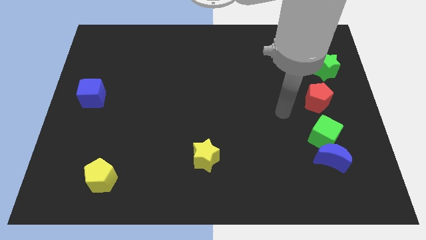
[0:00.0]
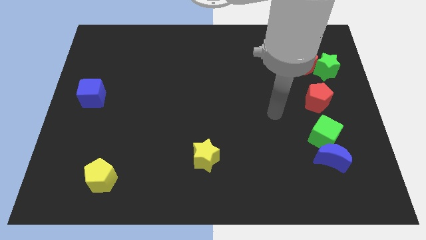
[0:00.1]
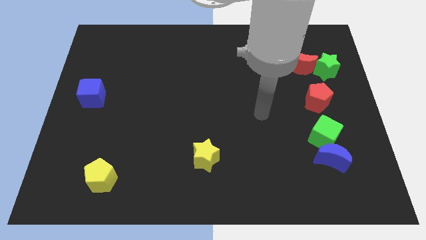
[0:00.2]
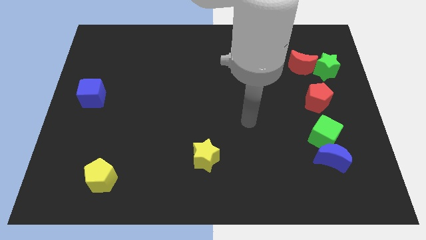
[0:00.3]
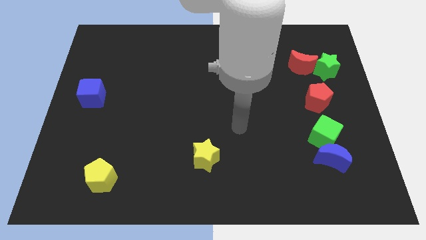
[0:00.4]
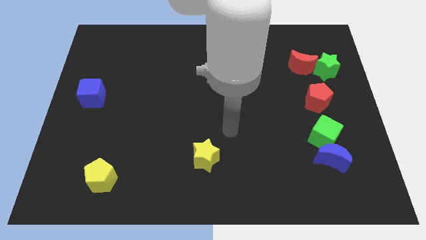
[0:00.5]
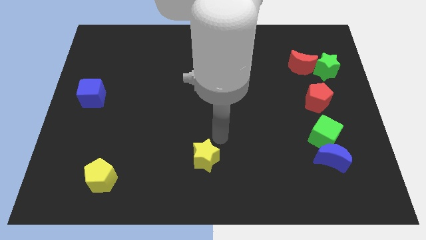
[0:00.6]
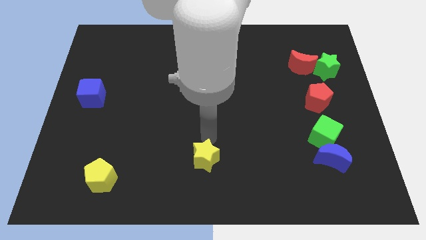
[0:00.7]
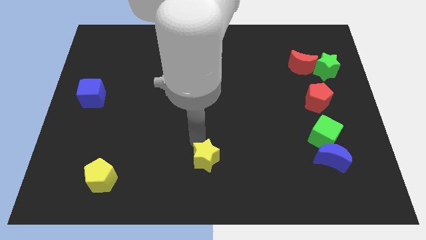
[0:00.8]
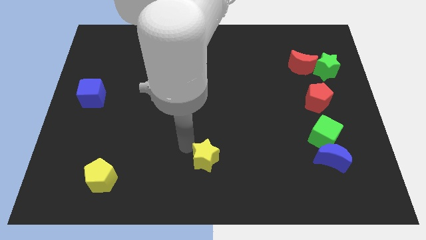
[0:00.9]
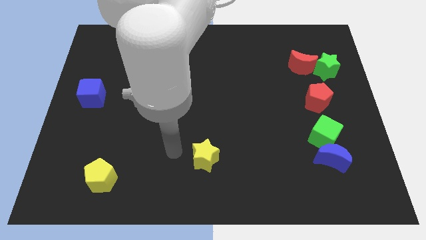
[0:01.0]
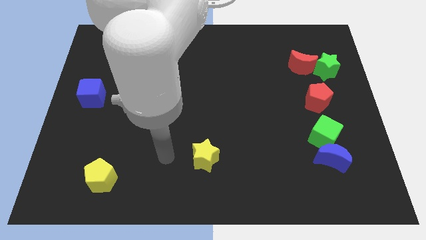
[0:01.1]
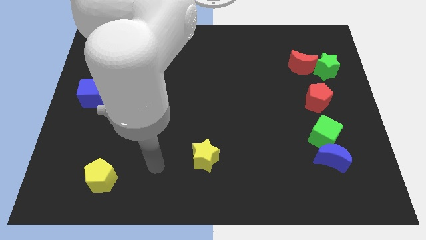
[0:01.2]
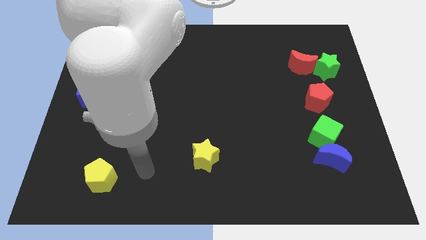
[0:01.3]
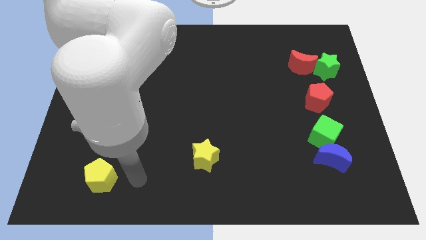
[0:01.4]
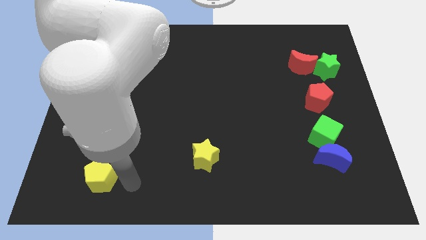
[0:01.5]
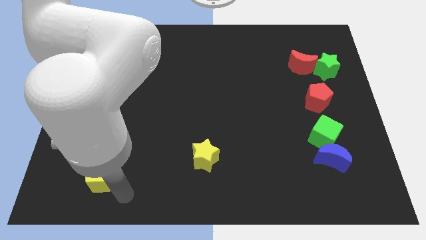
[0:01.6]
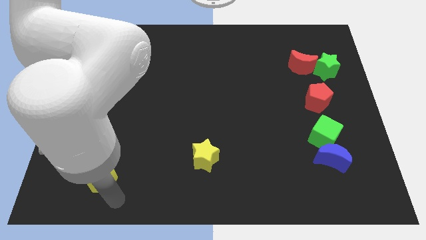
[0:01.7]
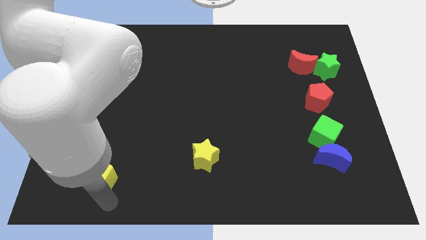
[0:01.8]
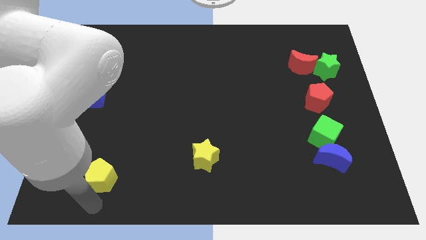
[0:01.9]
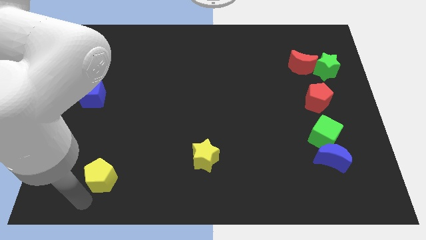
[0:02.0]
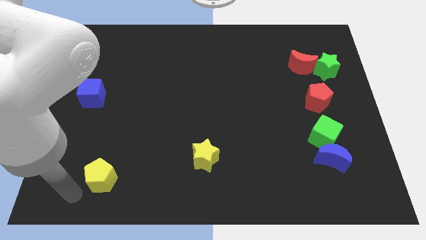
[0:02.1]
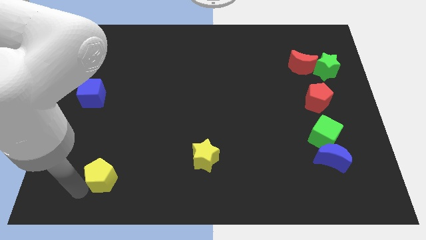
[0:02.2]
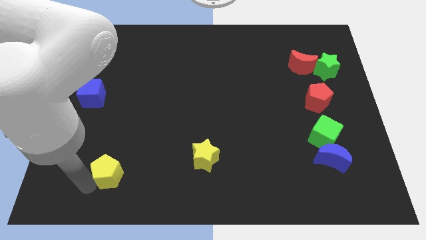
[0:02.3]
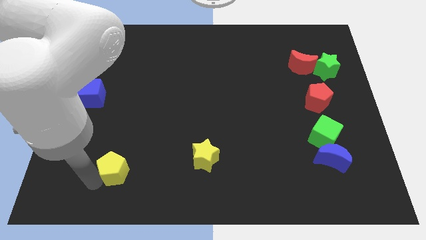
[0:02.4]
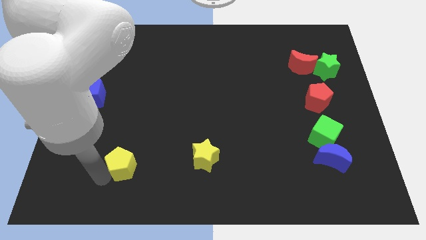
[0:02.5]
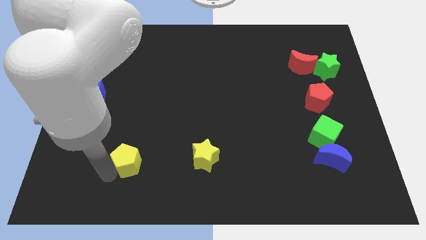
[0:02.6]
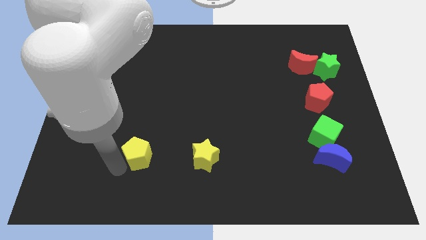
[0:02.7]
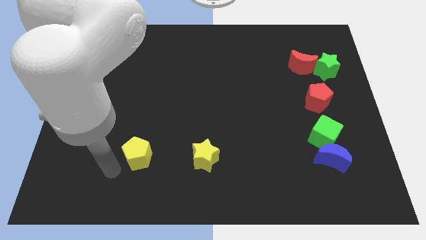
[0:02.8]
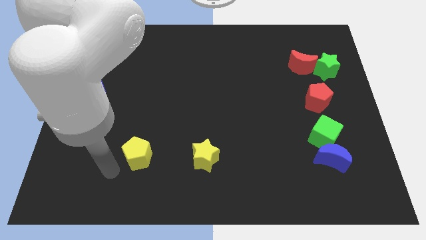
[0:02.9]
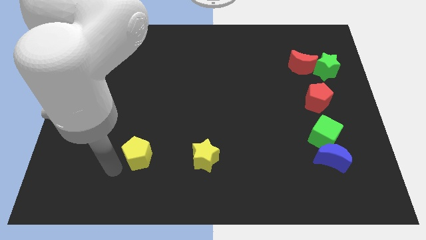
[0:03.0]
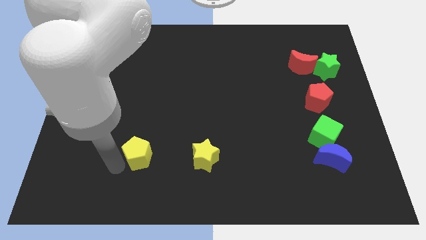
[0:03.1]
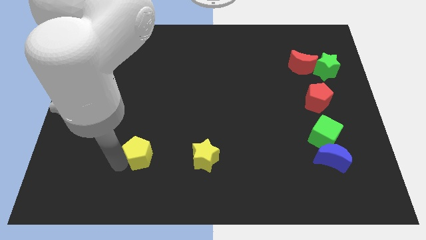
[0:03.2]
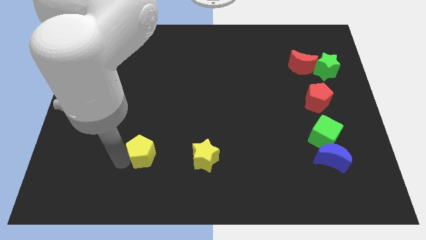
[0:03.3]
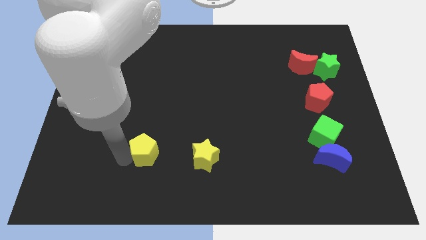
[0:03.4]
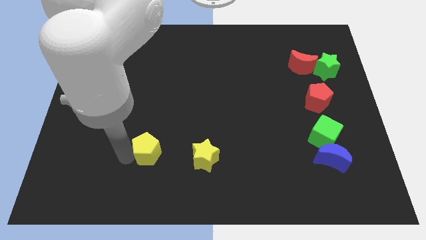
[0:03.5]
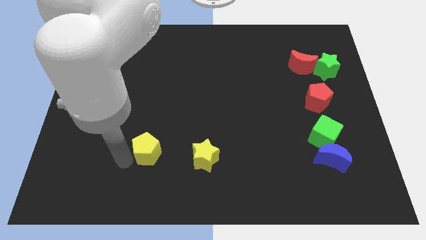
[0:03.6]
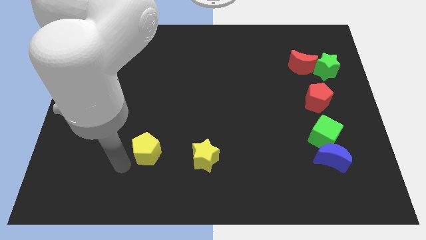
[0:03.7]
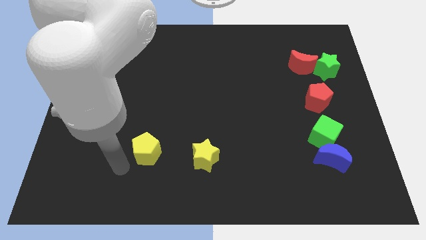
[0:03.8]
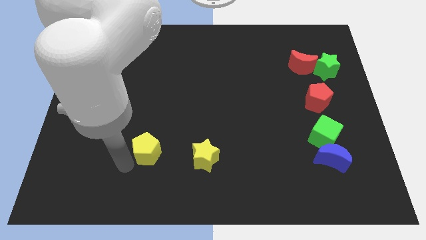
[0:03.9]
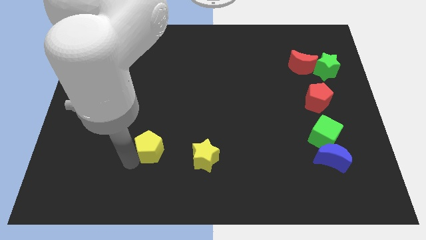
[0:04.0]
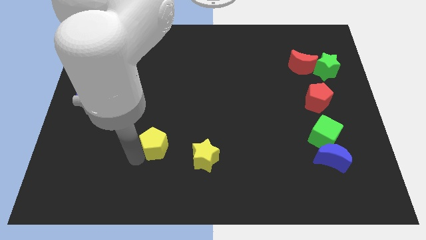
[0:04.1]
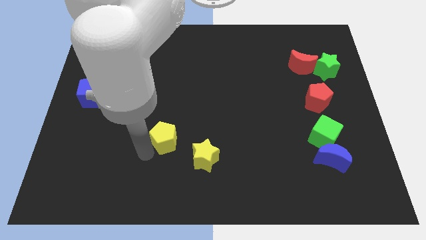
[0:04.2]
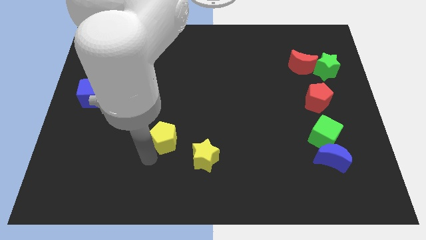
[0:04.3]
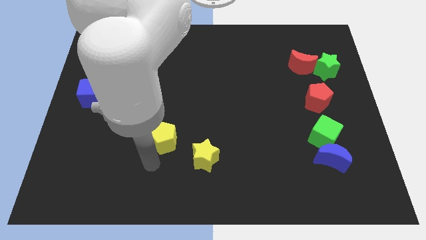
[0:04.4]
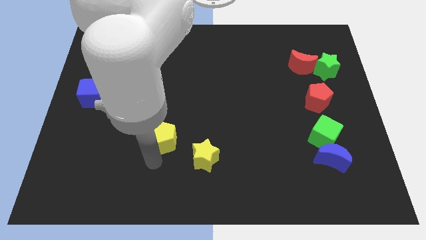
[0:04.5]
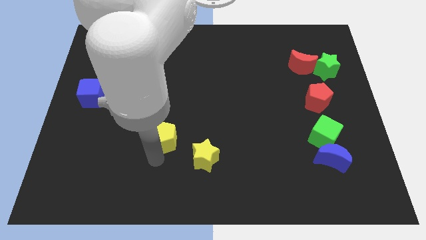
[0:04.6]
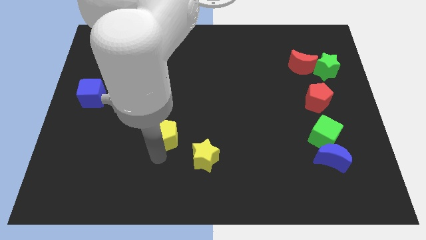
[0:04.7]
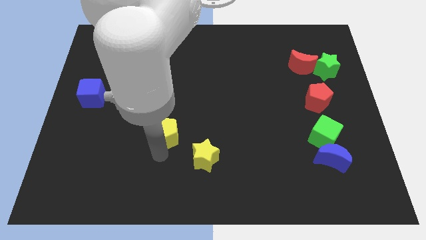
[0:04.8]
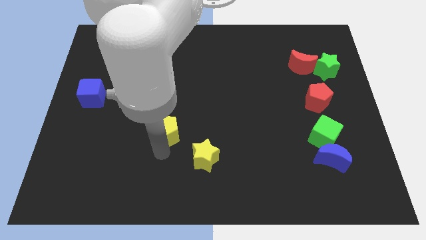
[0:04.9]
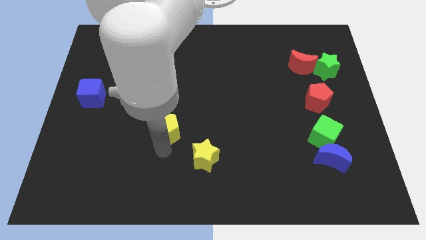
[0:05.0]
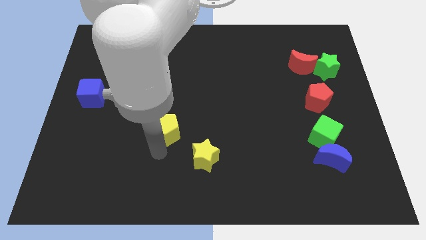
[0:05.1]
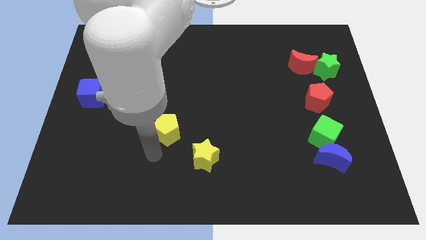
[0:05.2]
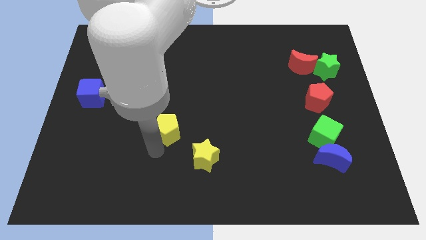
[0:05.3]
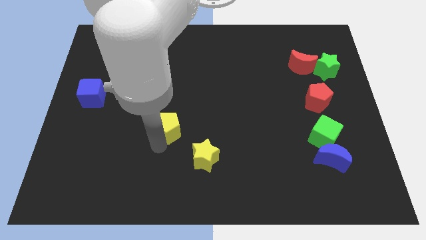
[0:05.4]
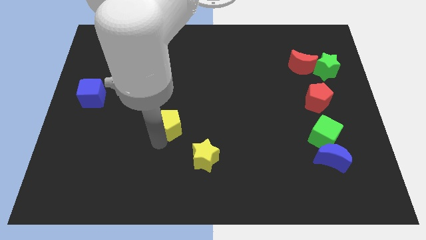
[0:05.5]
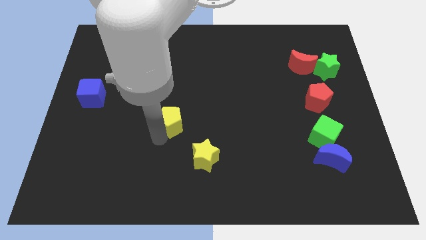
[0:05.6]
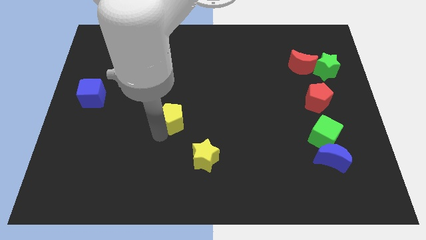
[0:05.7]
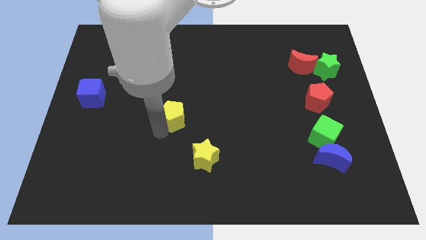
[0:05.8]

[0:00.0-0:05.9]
slide the yellow pentagon up and then right

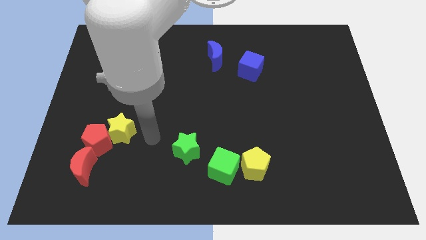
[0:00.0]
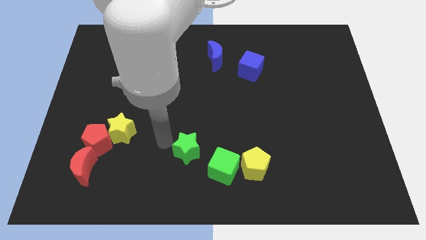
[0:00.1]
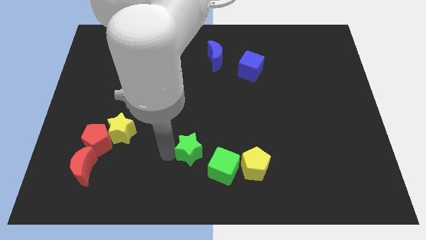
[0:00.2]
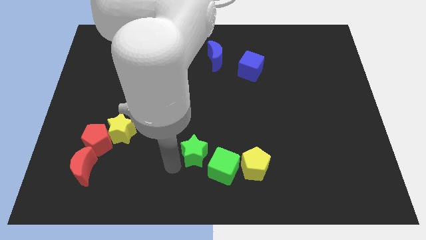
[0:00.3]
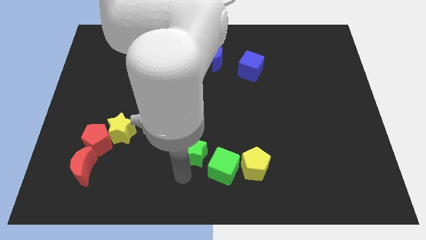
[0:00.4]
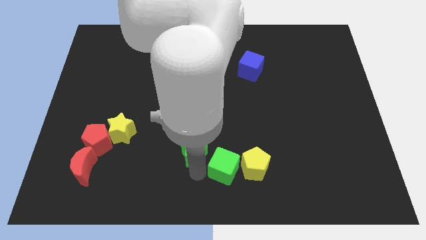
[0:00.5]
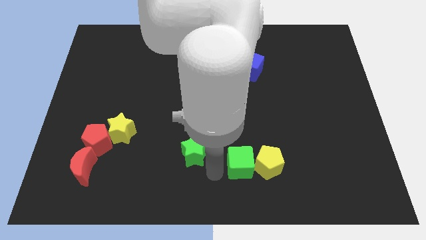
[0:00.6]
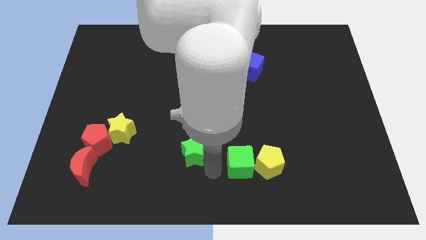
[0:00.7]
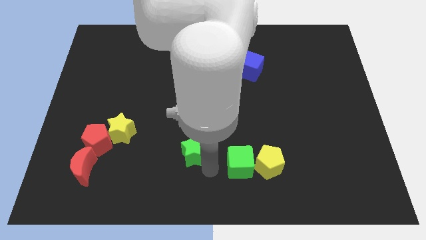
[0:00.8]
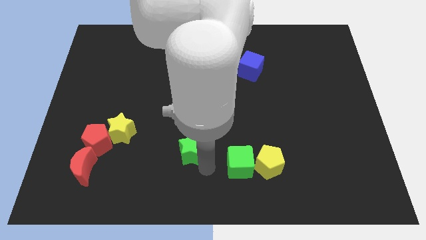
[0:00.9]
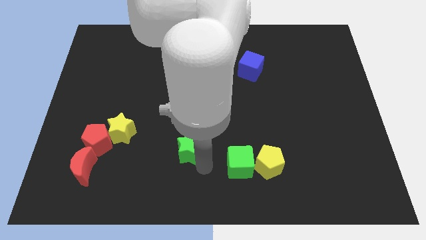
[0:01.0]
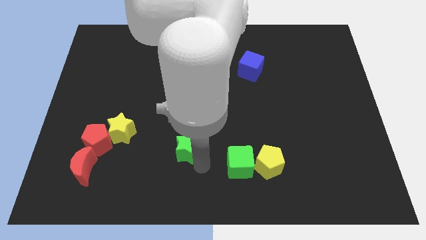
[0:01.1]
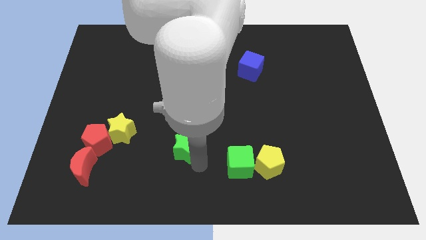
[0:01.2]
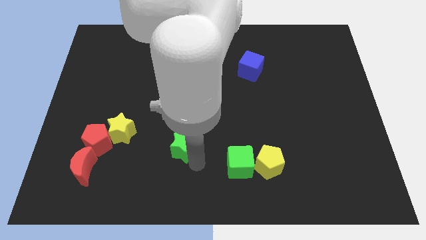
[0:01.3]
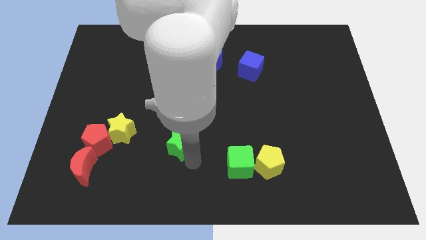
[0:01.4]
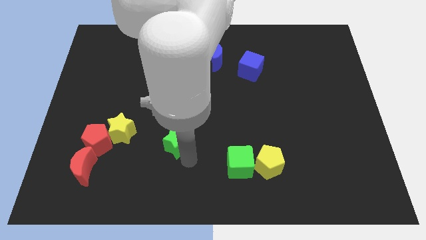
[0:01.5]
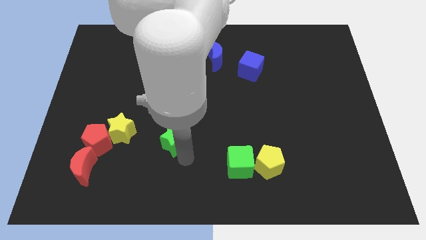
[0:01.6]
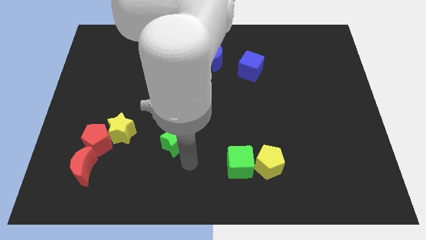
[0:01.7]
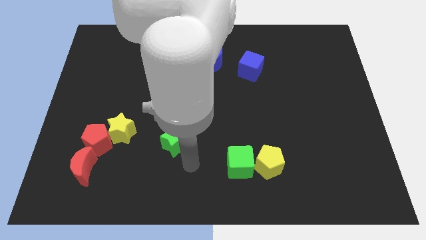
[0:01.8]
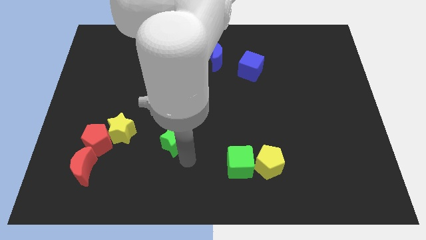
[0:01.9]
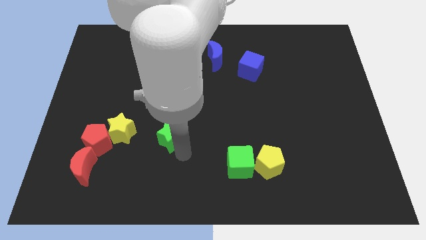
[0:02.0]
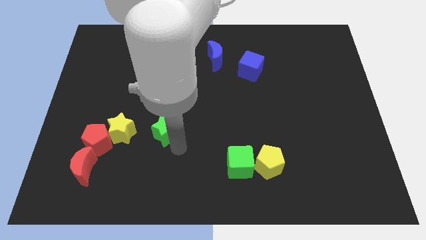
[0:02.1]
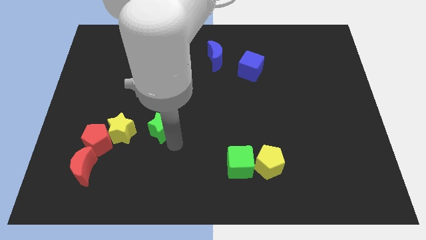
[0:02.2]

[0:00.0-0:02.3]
slide the green star slightly up and to the left

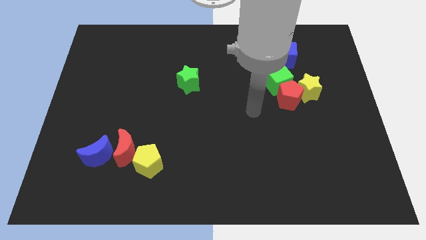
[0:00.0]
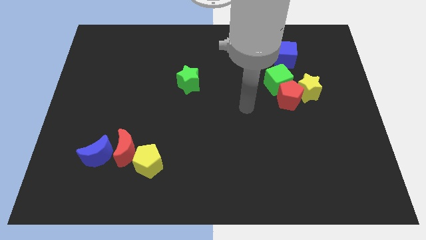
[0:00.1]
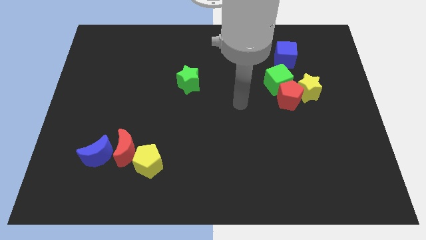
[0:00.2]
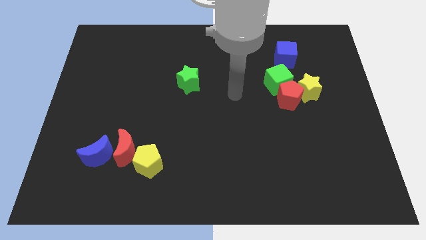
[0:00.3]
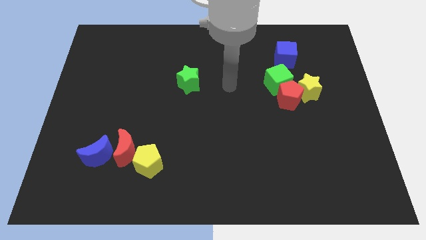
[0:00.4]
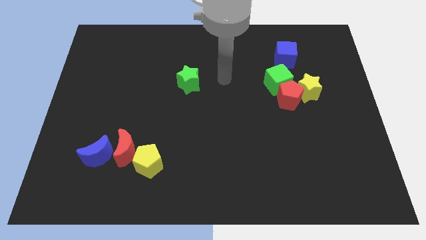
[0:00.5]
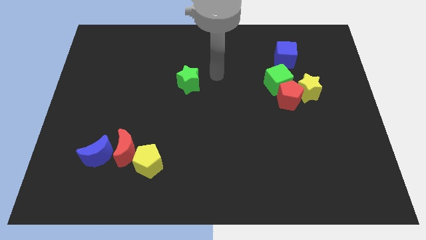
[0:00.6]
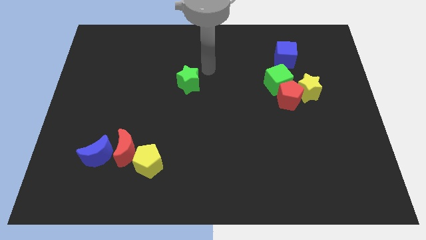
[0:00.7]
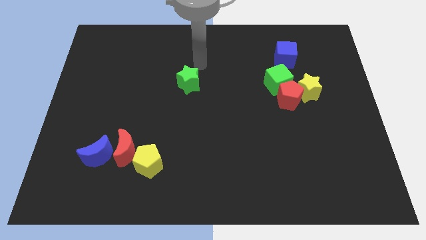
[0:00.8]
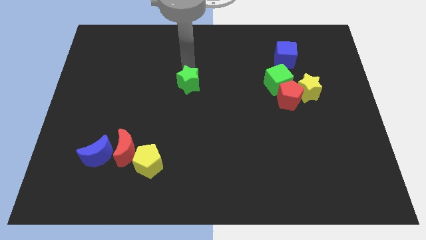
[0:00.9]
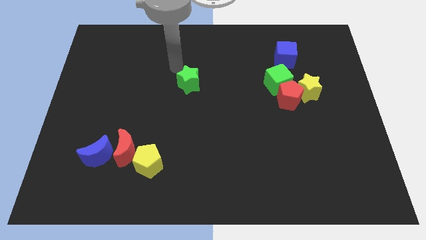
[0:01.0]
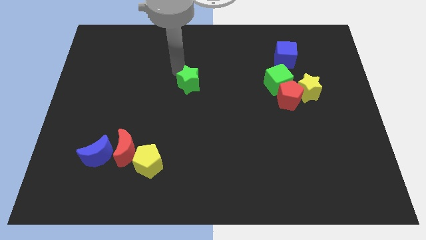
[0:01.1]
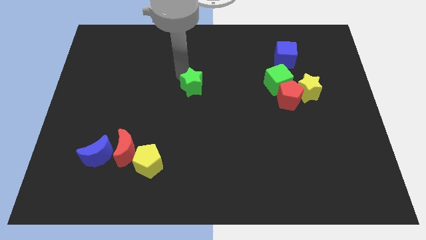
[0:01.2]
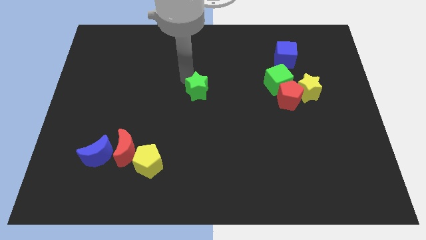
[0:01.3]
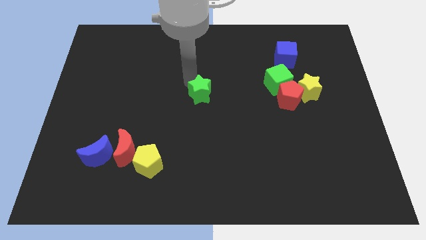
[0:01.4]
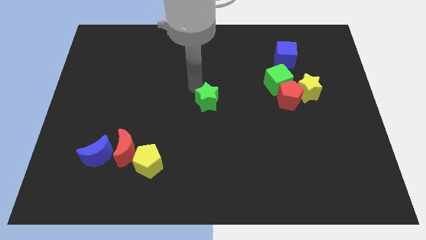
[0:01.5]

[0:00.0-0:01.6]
move the green star downwards and right a bit
